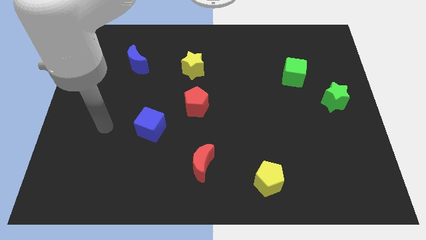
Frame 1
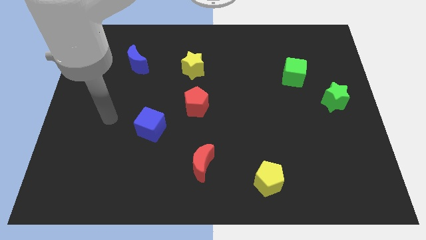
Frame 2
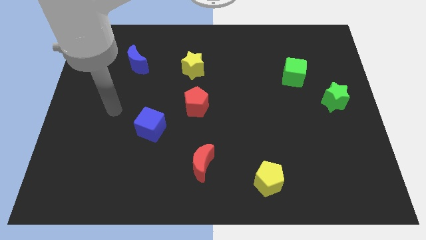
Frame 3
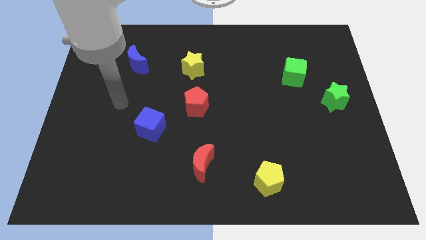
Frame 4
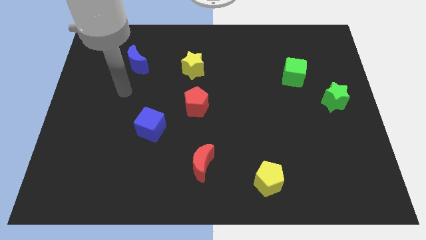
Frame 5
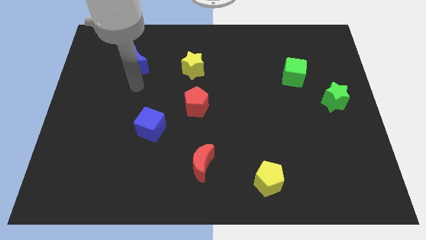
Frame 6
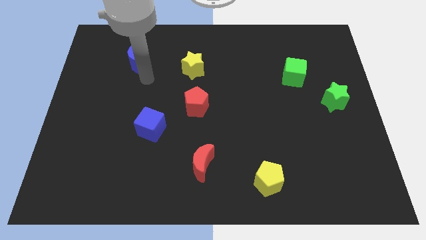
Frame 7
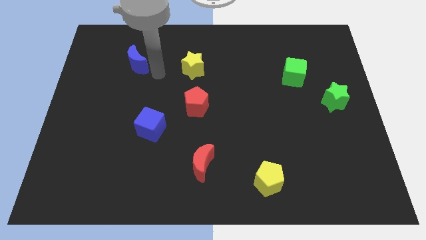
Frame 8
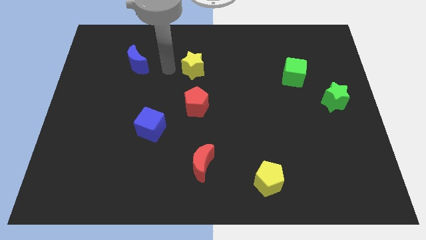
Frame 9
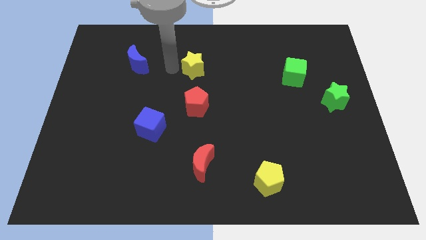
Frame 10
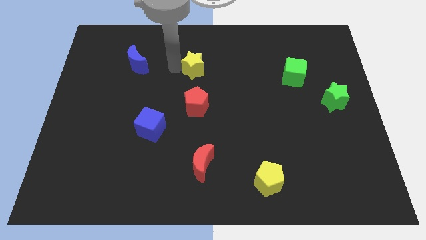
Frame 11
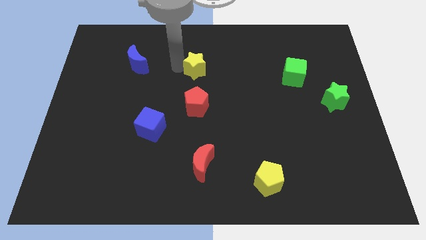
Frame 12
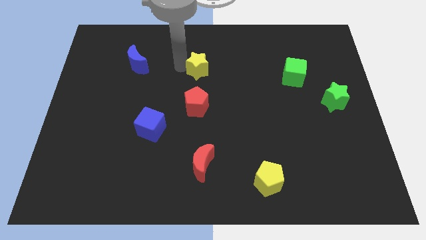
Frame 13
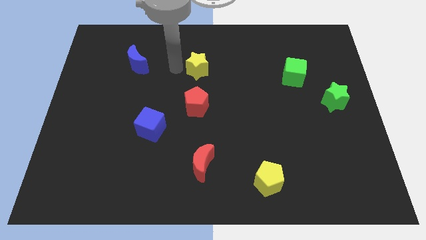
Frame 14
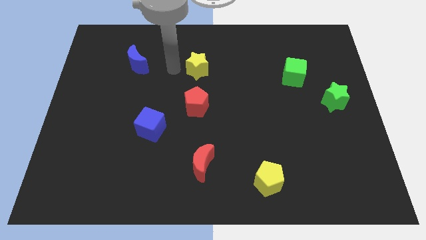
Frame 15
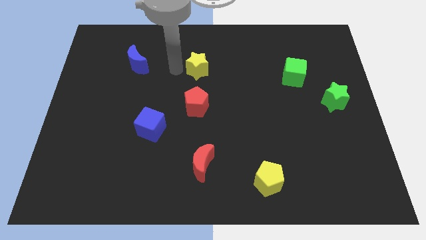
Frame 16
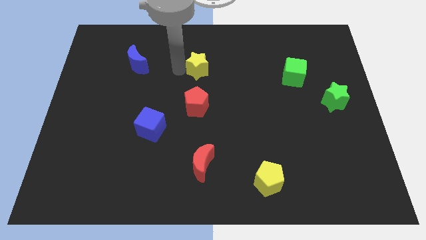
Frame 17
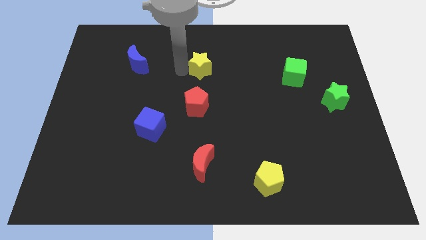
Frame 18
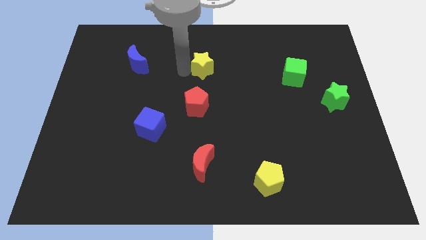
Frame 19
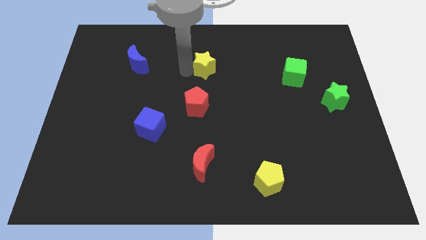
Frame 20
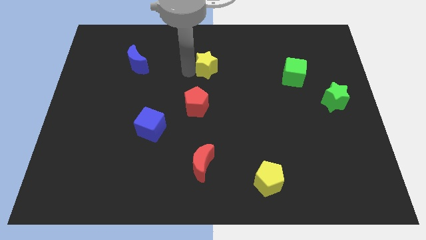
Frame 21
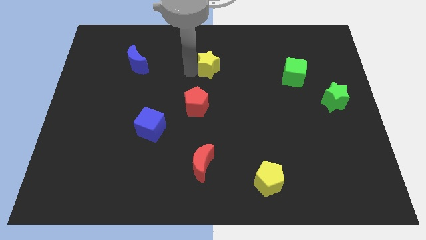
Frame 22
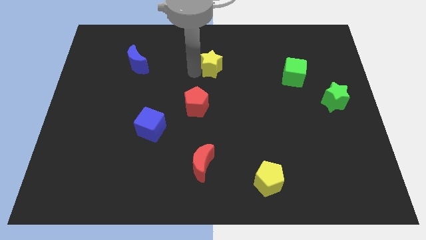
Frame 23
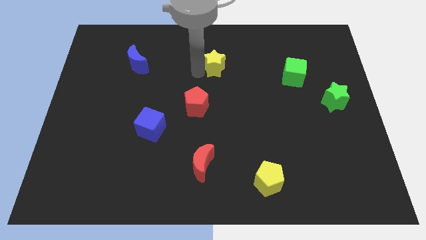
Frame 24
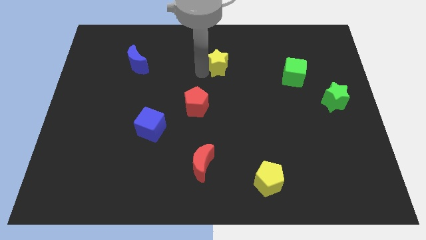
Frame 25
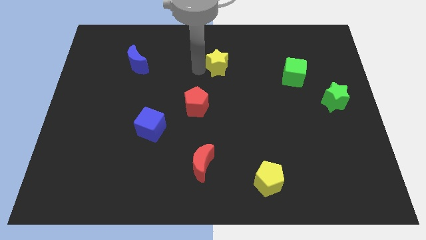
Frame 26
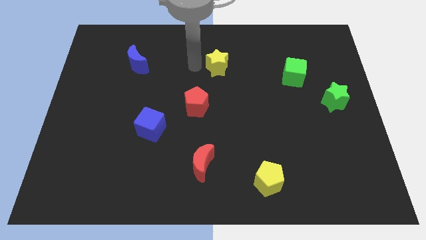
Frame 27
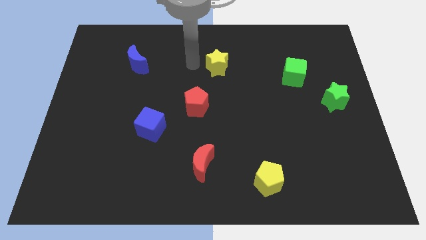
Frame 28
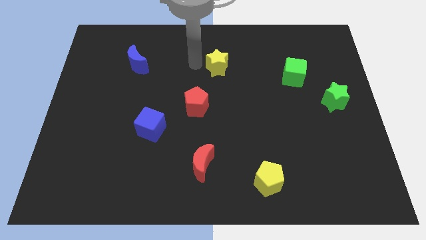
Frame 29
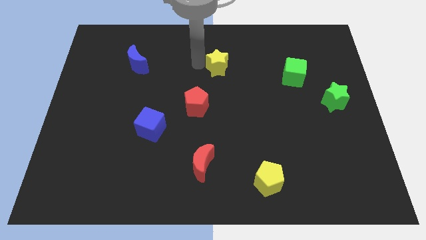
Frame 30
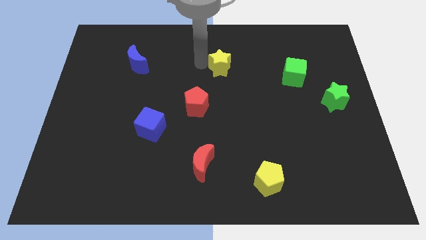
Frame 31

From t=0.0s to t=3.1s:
push the yellow star somewhat to the right

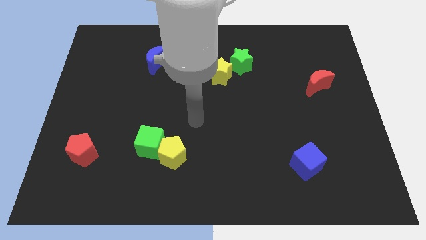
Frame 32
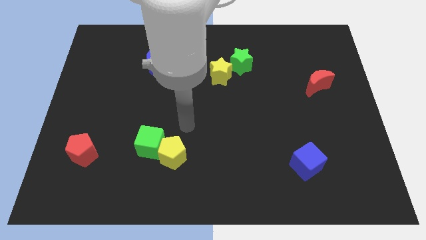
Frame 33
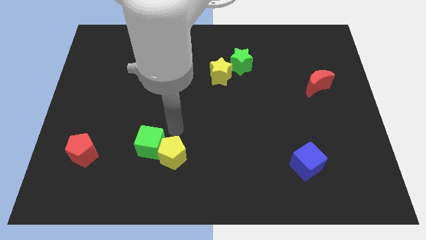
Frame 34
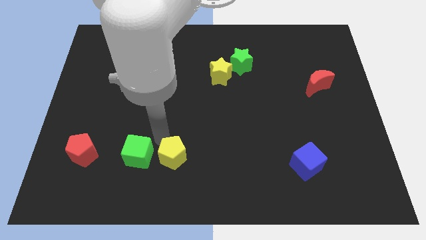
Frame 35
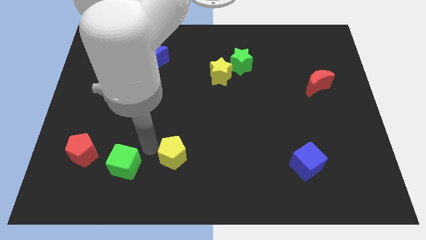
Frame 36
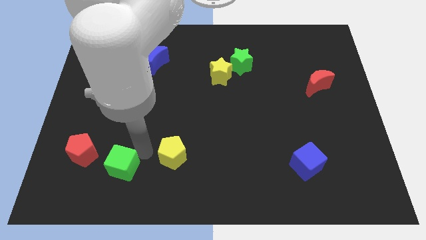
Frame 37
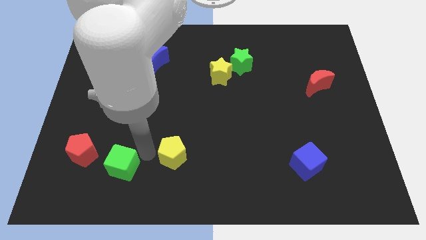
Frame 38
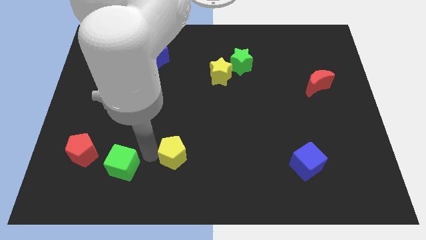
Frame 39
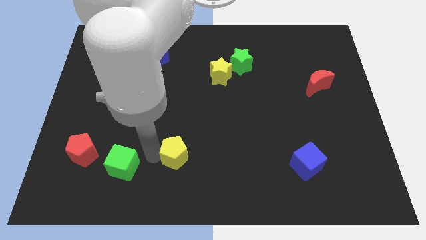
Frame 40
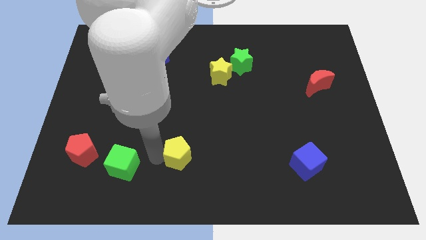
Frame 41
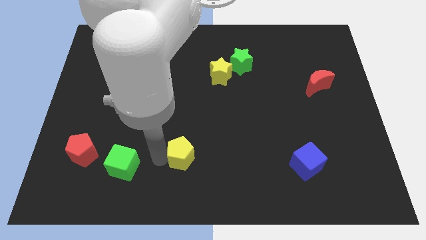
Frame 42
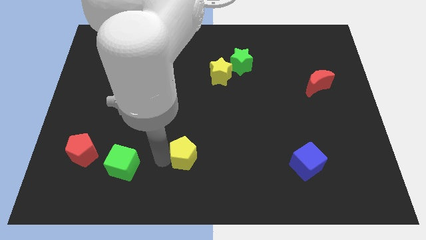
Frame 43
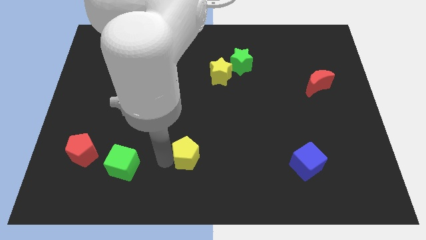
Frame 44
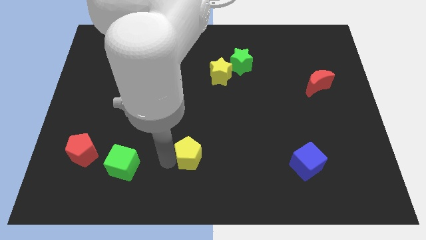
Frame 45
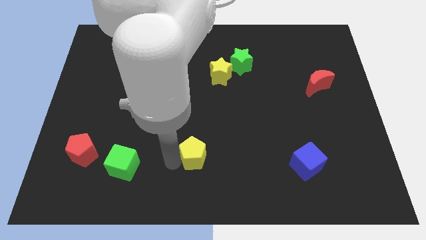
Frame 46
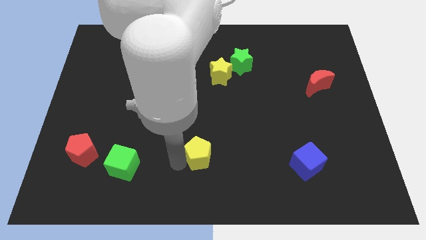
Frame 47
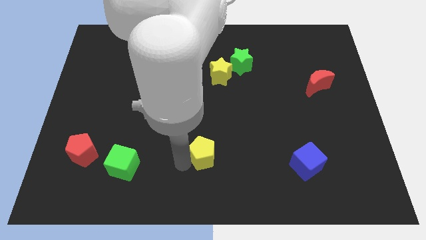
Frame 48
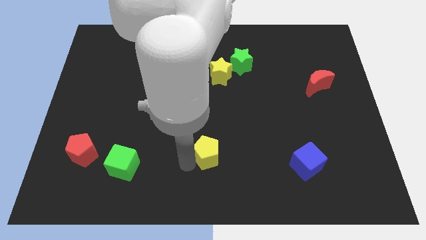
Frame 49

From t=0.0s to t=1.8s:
slightly slide the yellow pentagon right

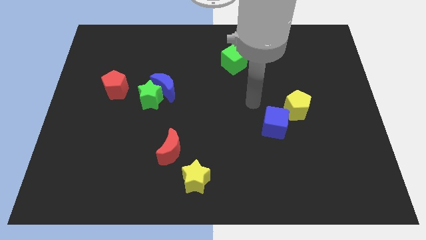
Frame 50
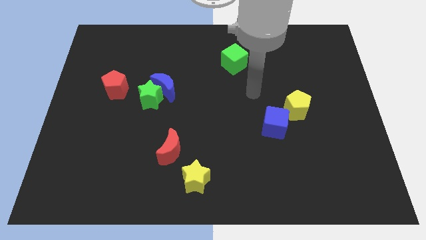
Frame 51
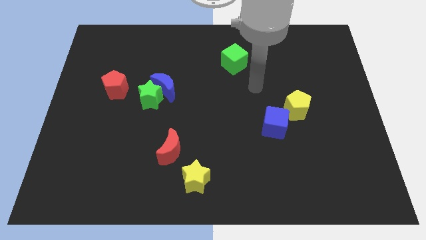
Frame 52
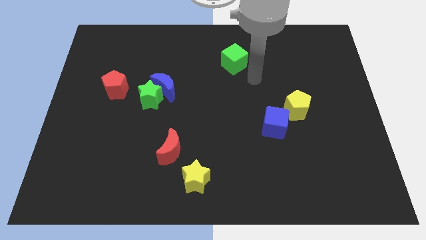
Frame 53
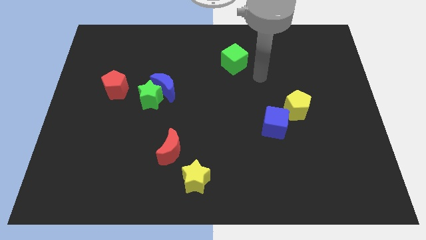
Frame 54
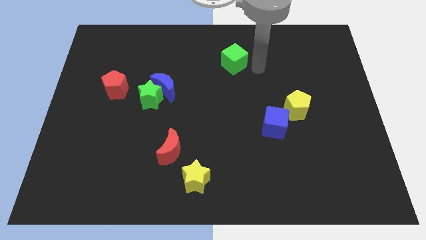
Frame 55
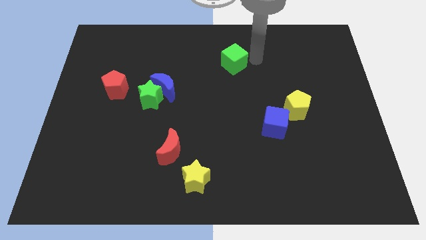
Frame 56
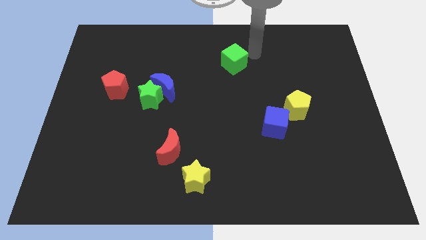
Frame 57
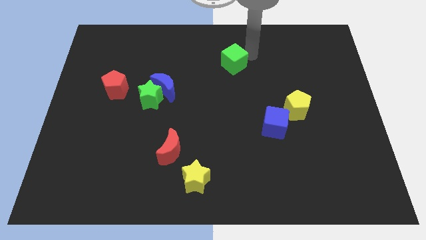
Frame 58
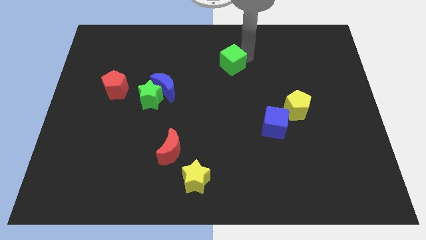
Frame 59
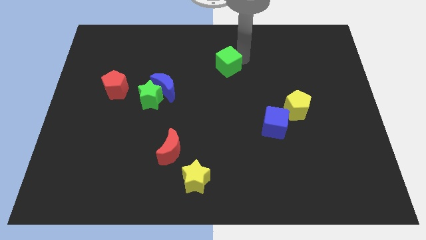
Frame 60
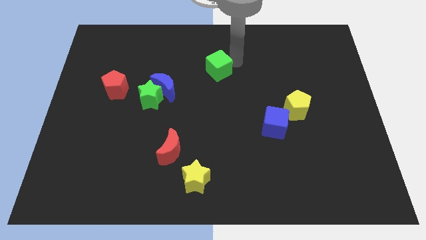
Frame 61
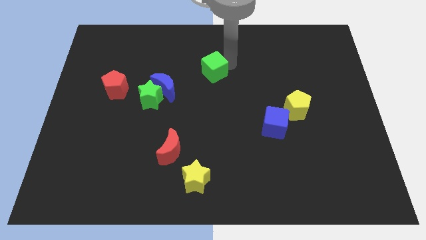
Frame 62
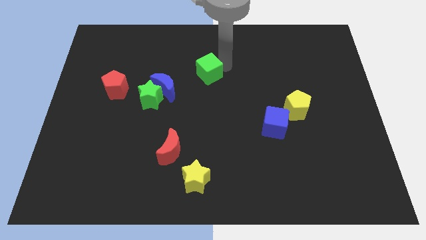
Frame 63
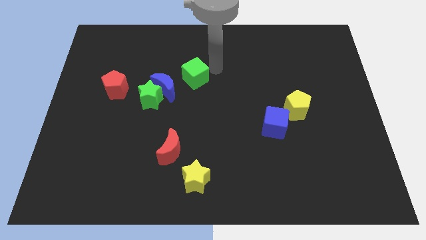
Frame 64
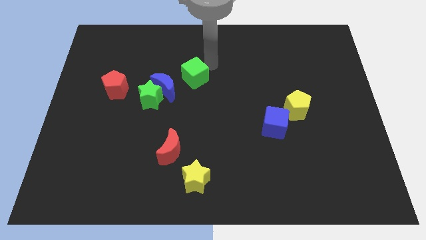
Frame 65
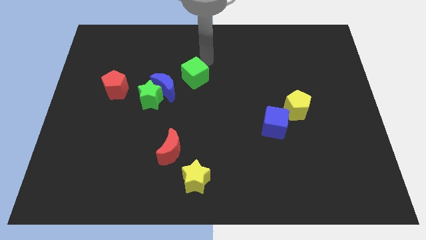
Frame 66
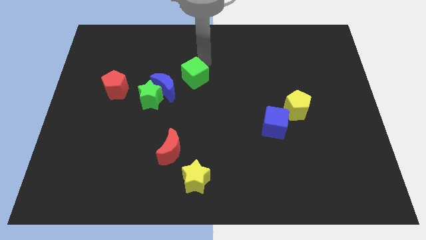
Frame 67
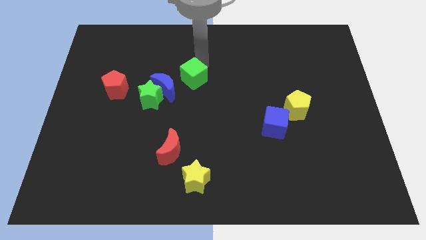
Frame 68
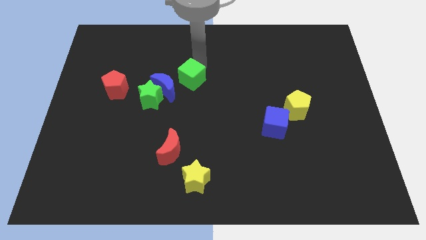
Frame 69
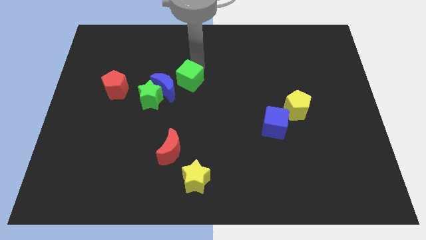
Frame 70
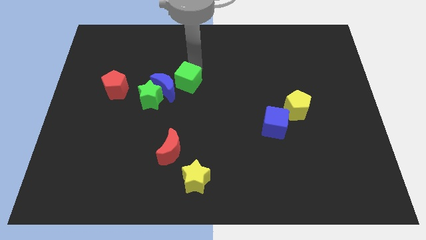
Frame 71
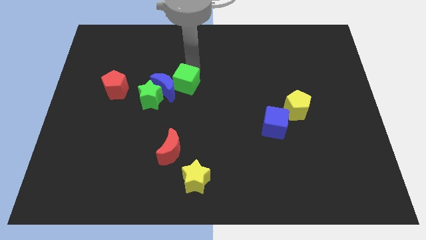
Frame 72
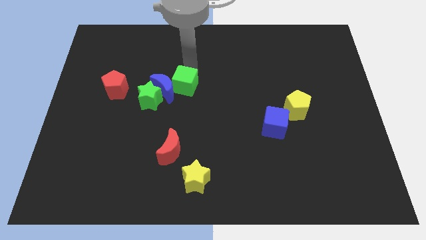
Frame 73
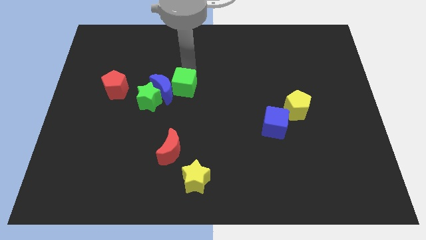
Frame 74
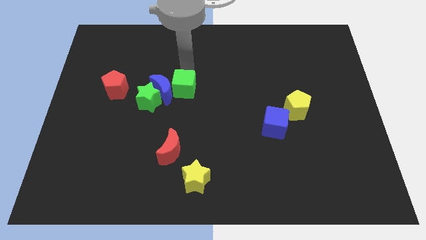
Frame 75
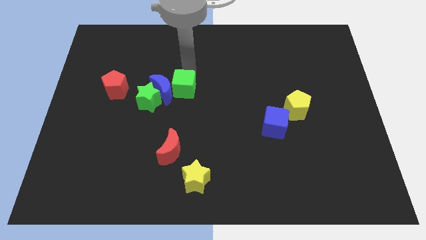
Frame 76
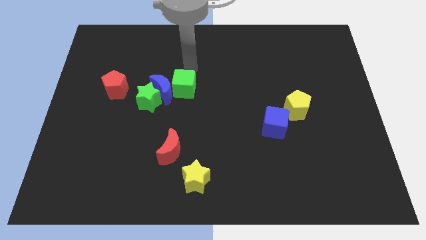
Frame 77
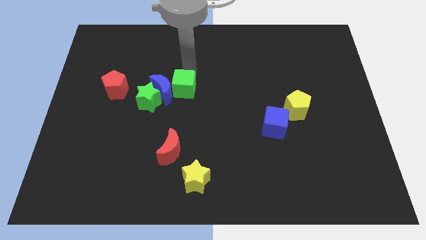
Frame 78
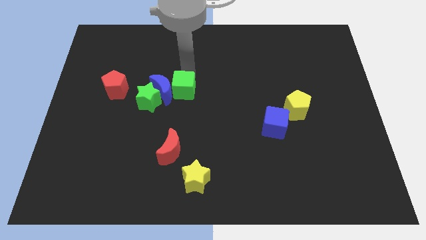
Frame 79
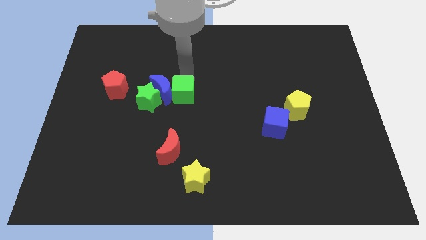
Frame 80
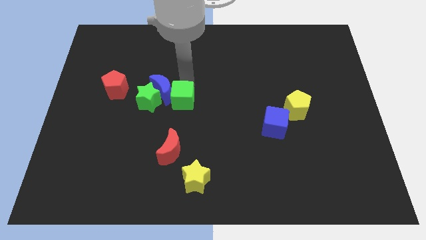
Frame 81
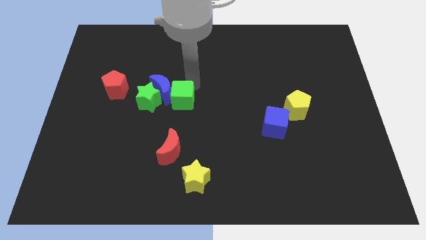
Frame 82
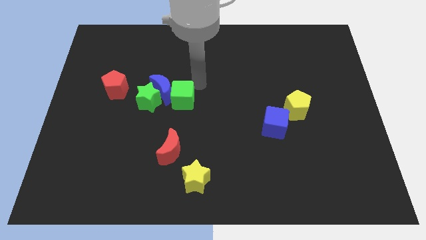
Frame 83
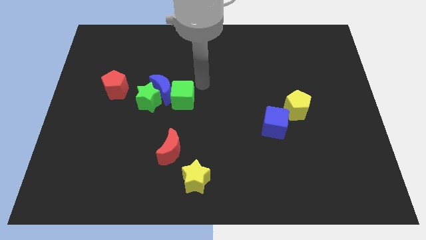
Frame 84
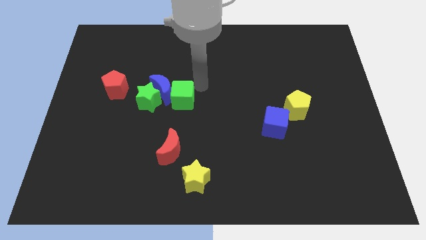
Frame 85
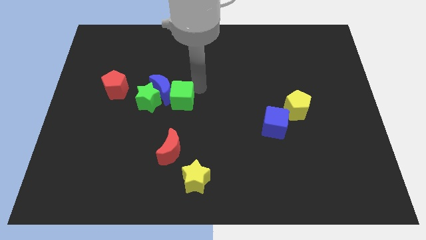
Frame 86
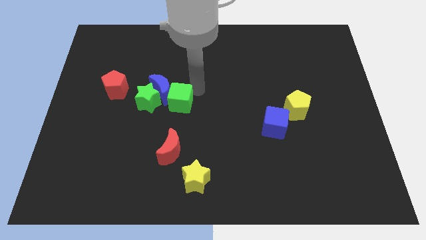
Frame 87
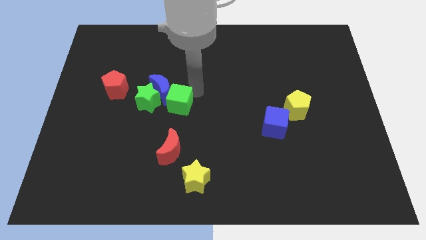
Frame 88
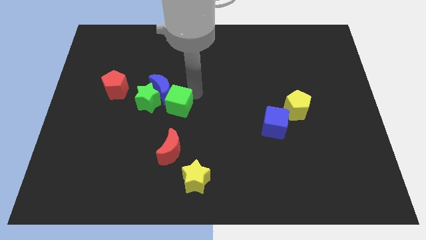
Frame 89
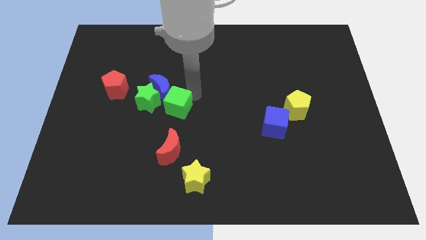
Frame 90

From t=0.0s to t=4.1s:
push the green cube diagonally down and left
